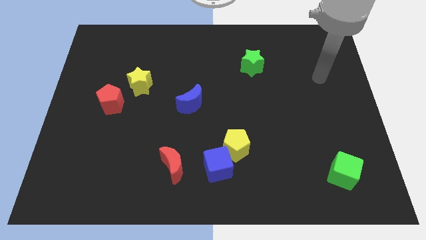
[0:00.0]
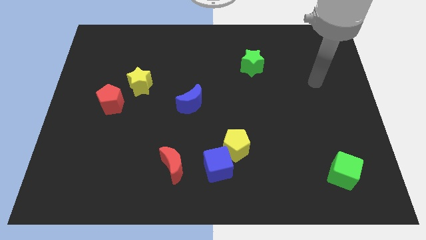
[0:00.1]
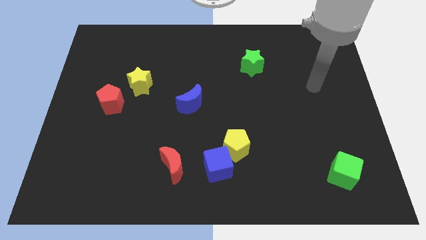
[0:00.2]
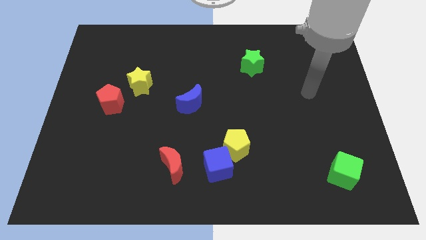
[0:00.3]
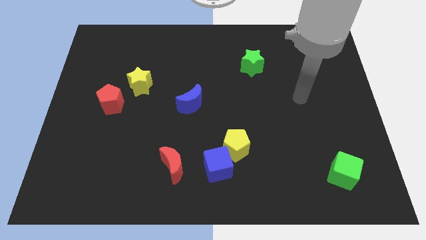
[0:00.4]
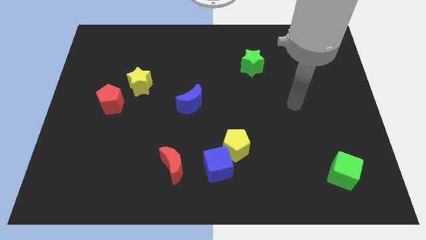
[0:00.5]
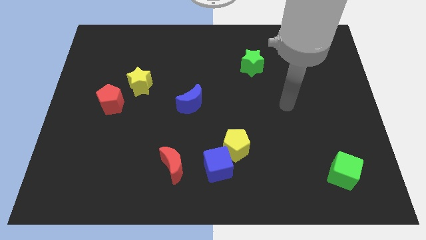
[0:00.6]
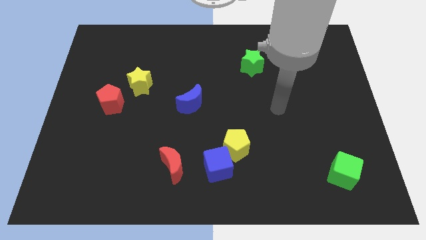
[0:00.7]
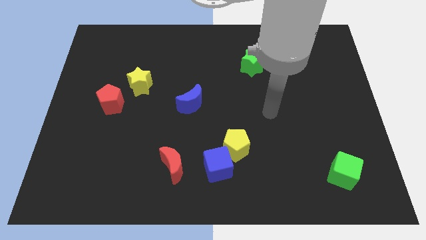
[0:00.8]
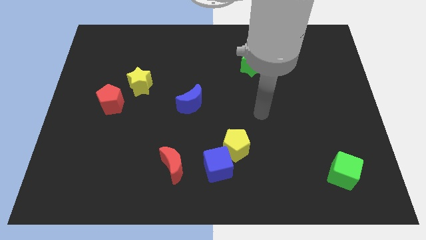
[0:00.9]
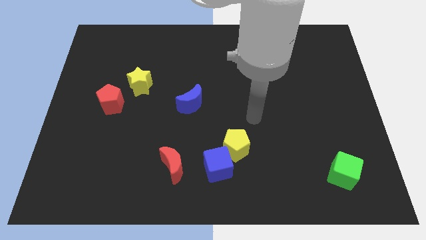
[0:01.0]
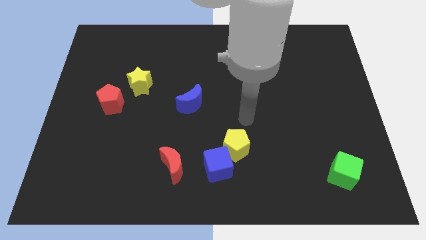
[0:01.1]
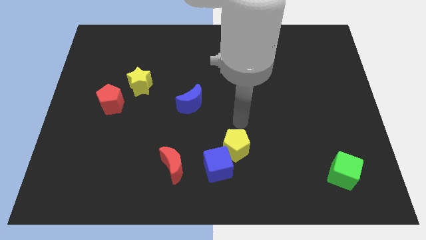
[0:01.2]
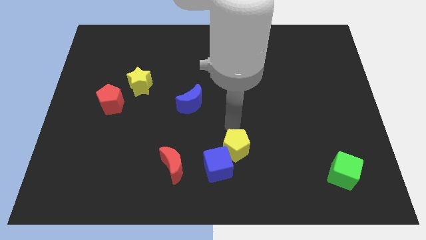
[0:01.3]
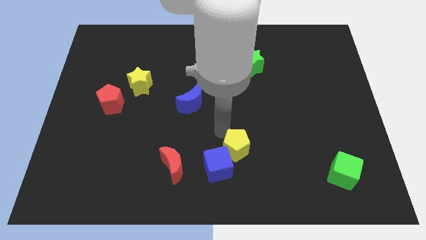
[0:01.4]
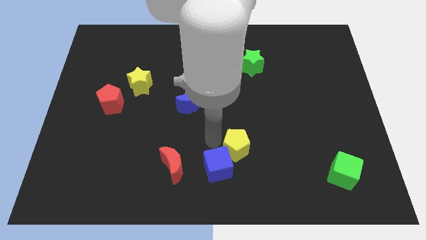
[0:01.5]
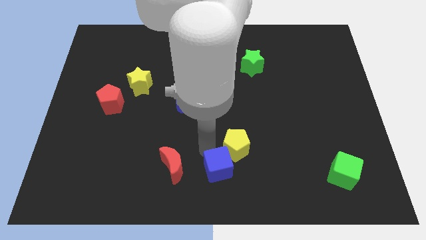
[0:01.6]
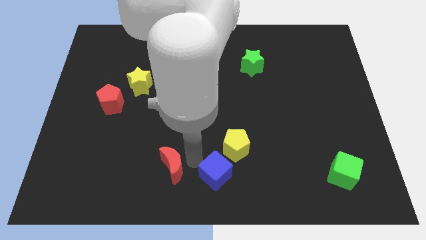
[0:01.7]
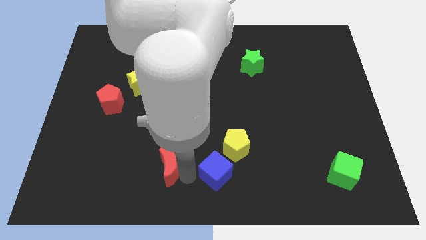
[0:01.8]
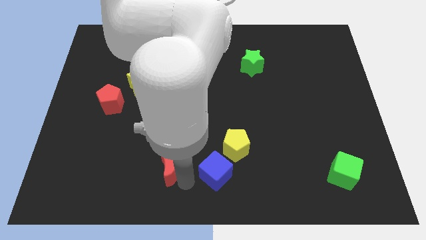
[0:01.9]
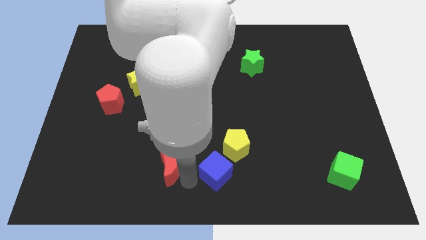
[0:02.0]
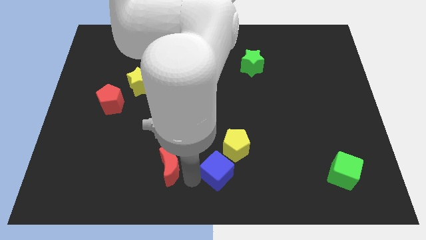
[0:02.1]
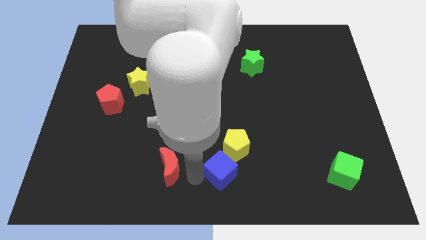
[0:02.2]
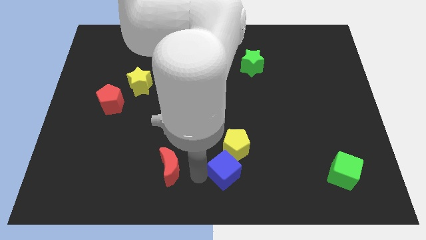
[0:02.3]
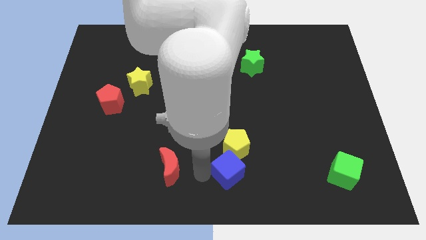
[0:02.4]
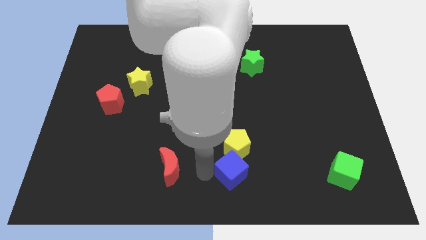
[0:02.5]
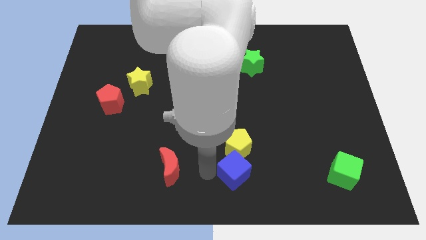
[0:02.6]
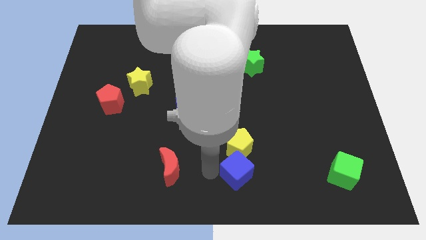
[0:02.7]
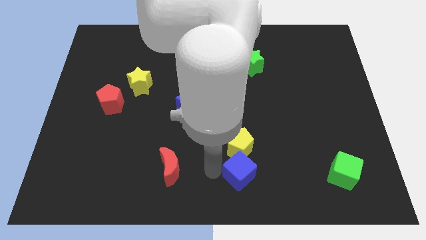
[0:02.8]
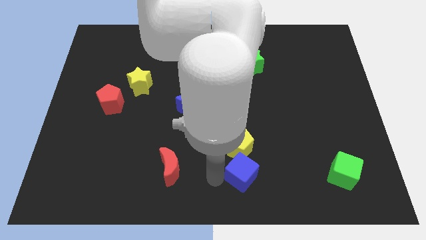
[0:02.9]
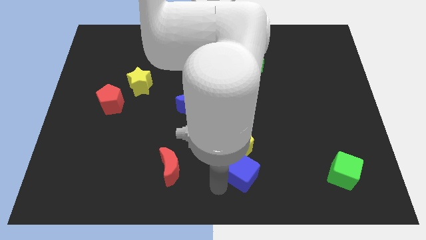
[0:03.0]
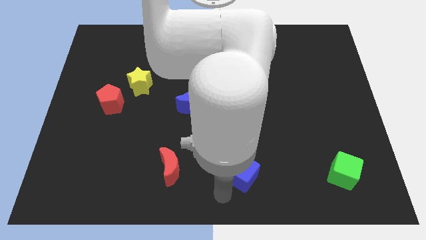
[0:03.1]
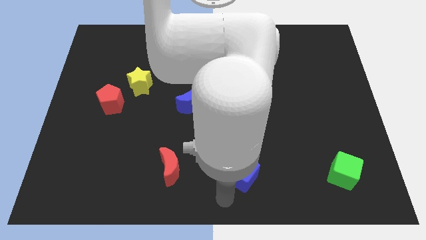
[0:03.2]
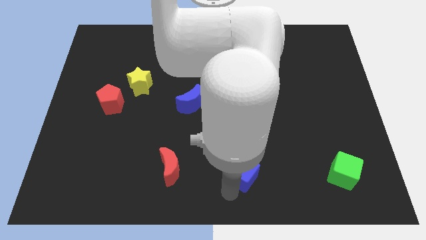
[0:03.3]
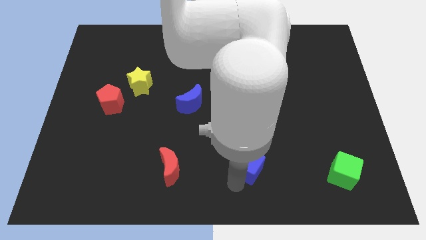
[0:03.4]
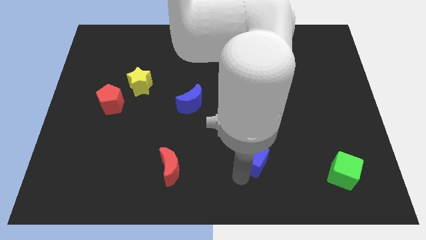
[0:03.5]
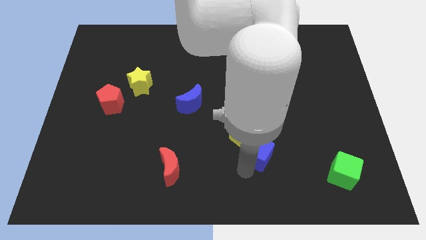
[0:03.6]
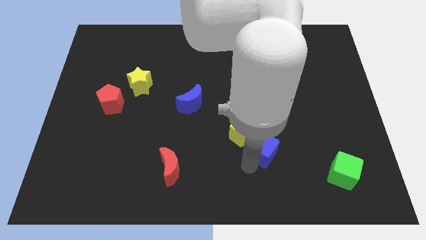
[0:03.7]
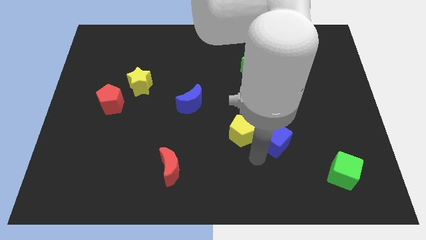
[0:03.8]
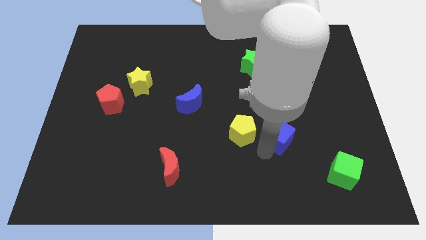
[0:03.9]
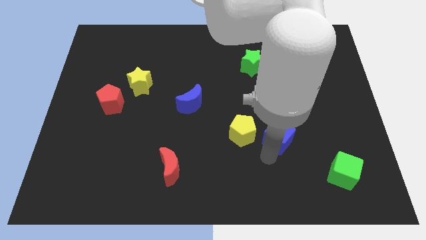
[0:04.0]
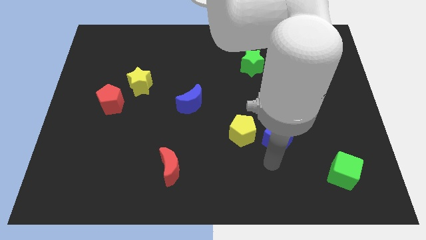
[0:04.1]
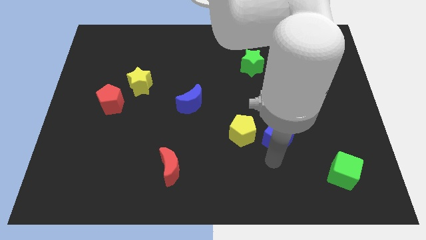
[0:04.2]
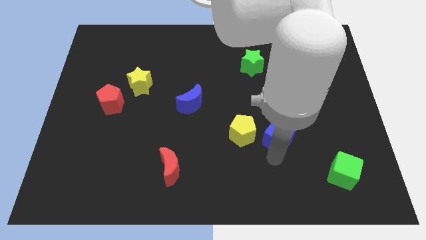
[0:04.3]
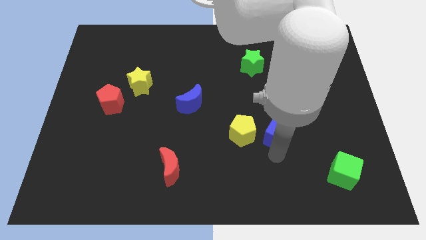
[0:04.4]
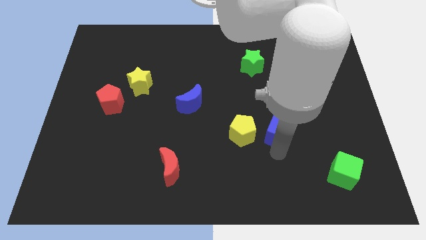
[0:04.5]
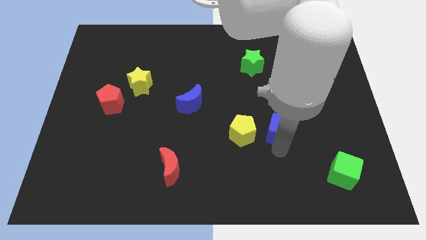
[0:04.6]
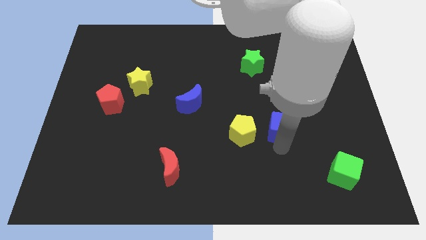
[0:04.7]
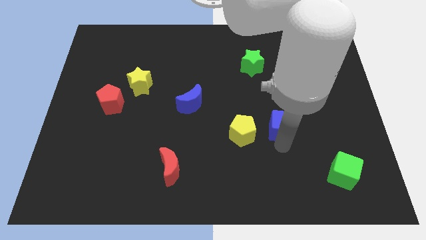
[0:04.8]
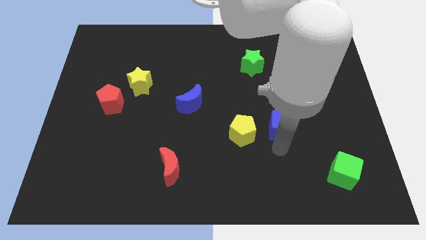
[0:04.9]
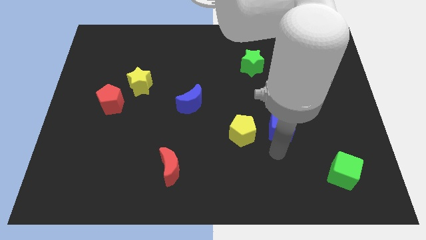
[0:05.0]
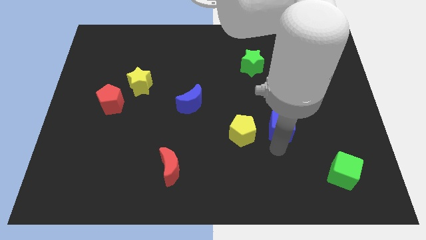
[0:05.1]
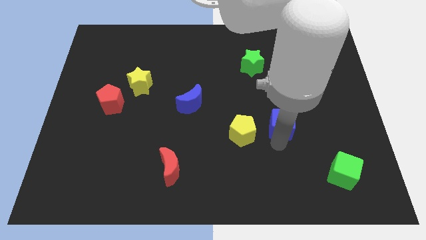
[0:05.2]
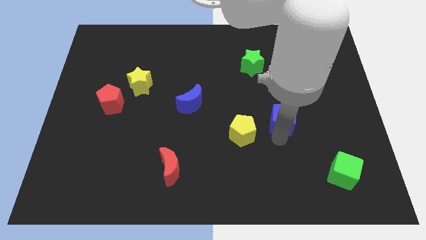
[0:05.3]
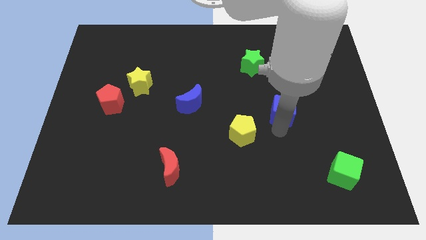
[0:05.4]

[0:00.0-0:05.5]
push the blue cube upwards and to the right

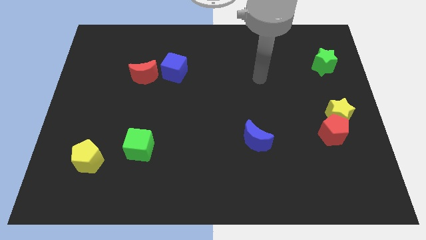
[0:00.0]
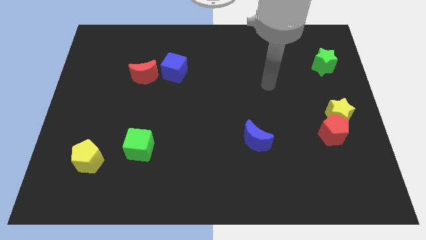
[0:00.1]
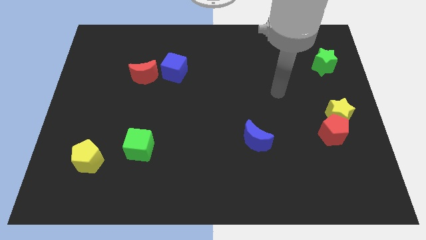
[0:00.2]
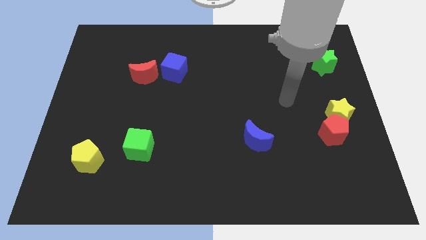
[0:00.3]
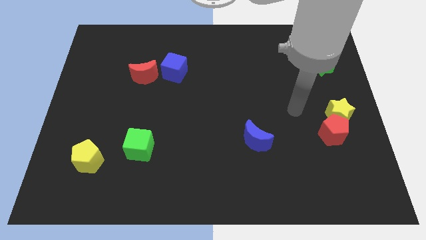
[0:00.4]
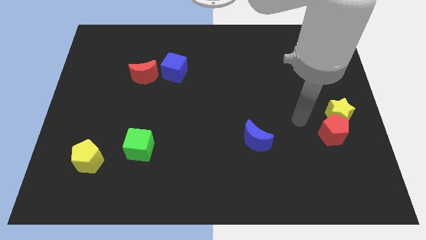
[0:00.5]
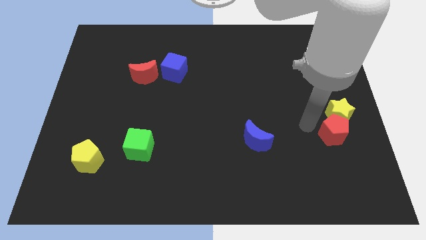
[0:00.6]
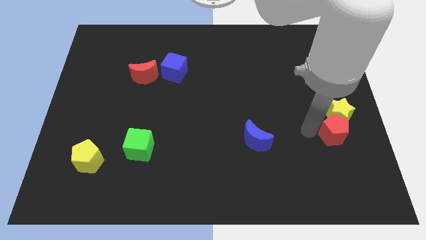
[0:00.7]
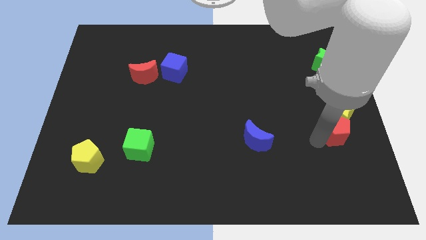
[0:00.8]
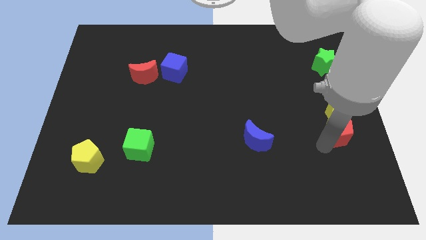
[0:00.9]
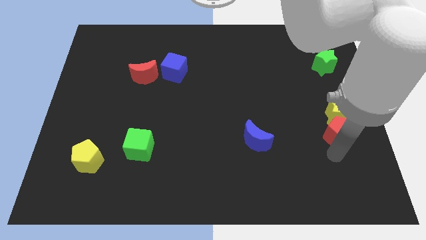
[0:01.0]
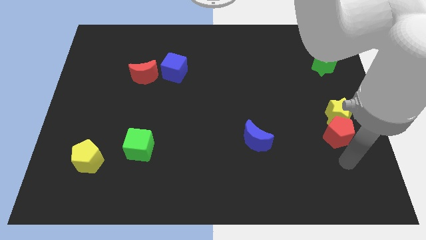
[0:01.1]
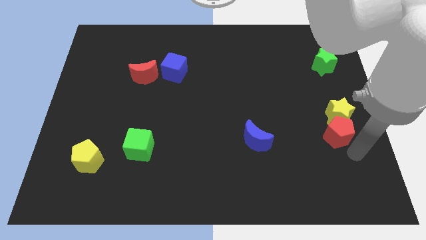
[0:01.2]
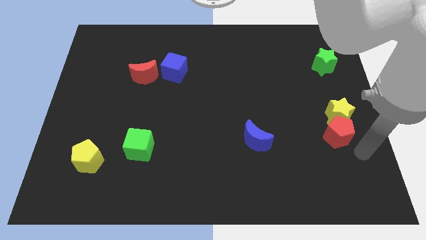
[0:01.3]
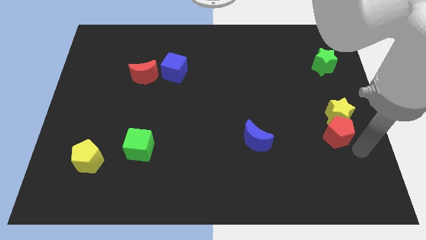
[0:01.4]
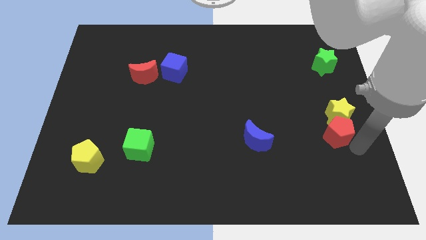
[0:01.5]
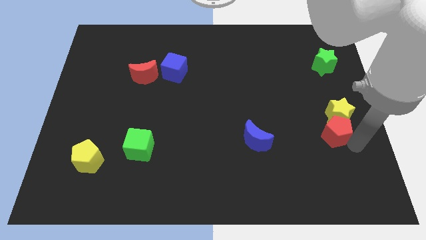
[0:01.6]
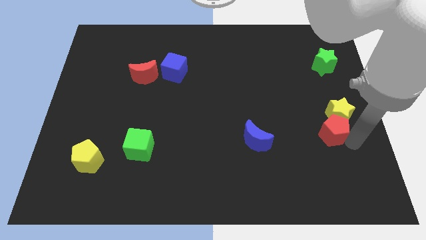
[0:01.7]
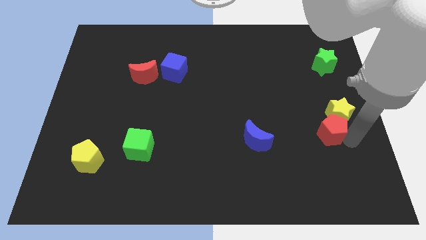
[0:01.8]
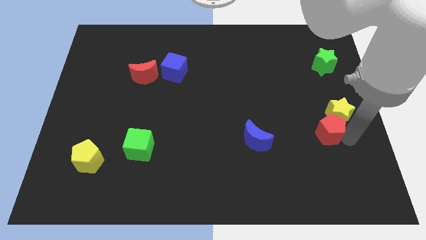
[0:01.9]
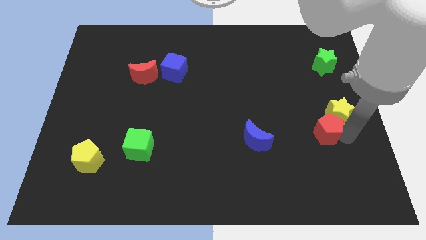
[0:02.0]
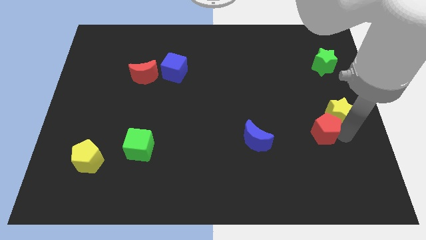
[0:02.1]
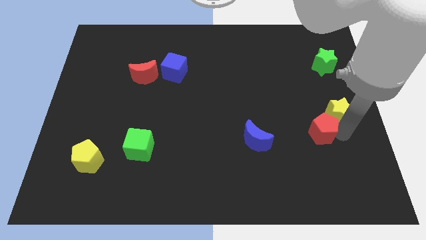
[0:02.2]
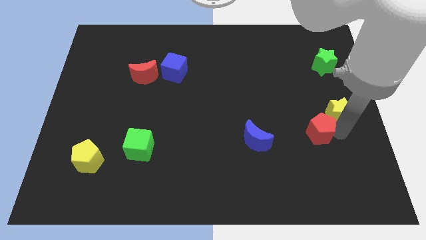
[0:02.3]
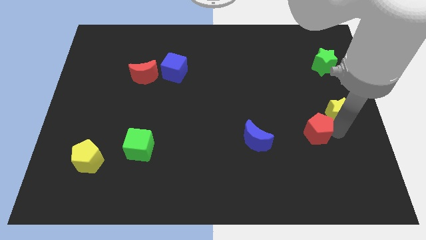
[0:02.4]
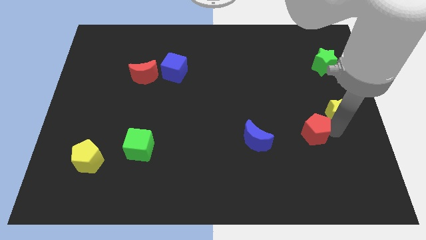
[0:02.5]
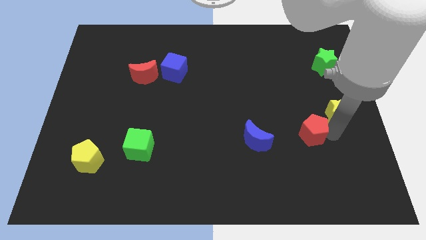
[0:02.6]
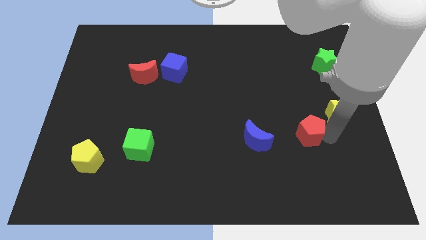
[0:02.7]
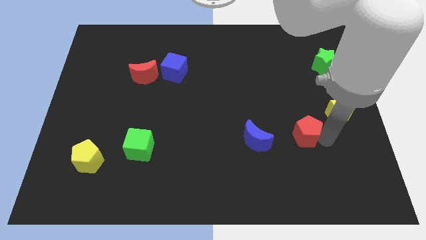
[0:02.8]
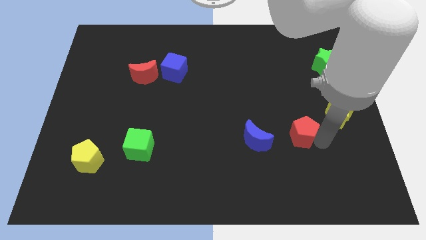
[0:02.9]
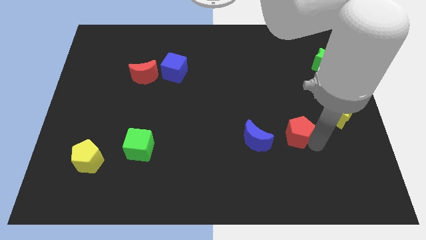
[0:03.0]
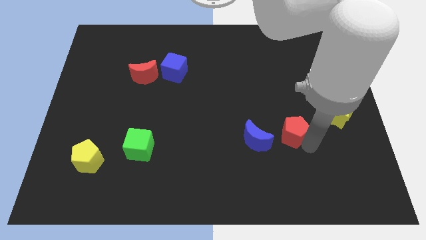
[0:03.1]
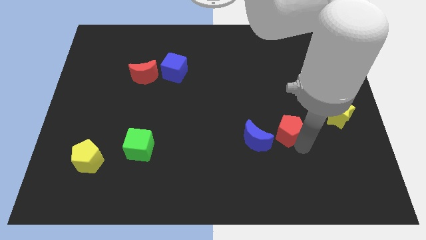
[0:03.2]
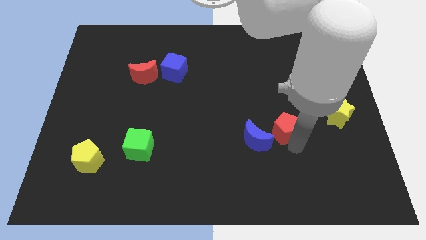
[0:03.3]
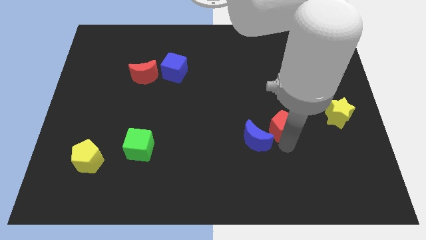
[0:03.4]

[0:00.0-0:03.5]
slightly move the red pentagon up and left diagonally
